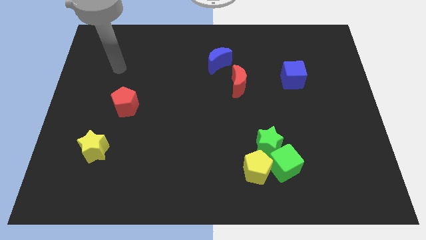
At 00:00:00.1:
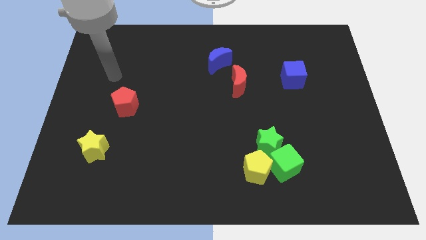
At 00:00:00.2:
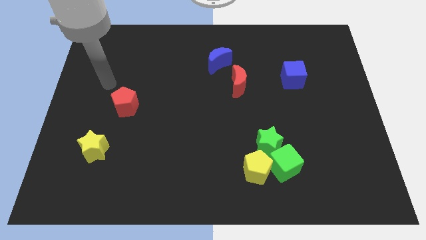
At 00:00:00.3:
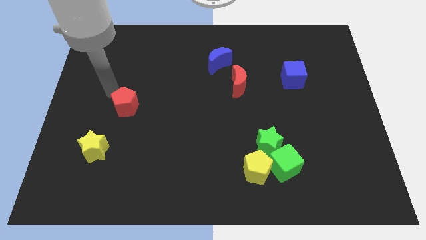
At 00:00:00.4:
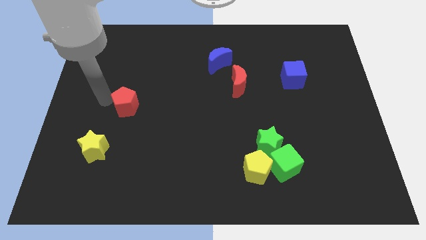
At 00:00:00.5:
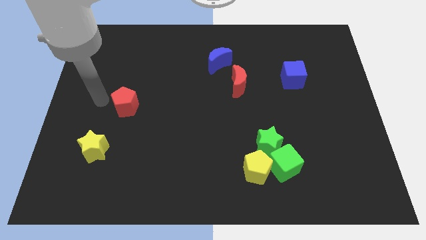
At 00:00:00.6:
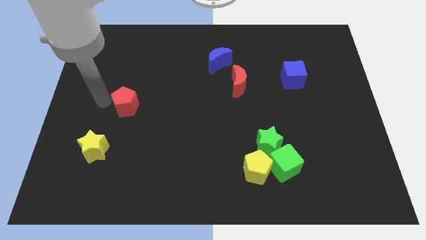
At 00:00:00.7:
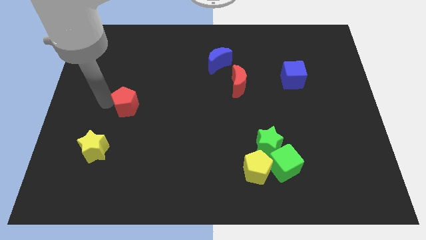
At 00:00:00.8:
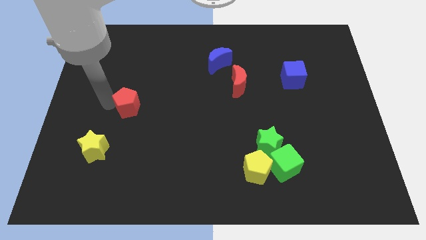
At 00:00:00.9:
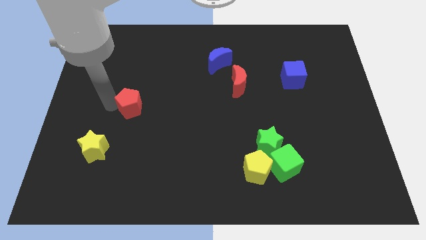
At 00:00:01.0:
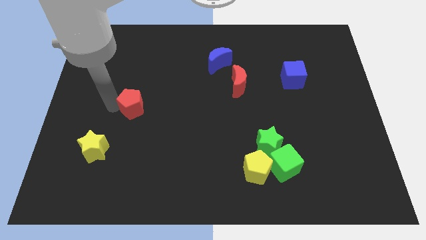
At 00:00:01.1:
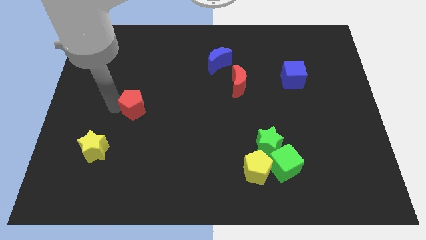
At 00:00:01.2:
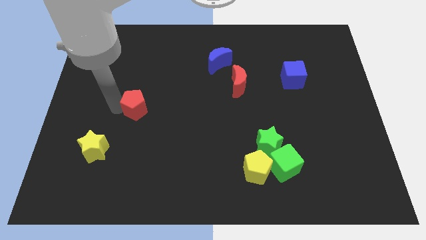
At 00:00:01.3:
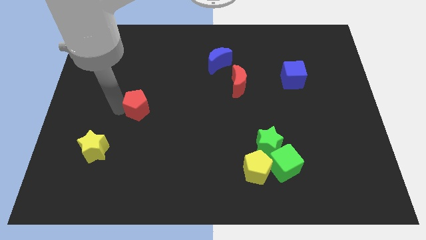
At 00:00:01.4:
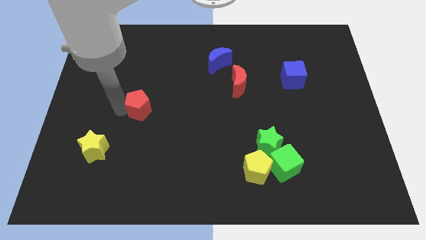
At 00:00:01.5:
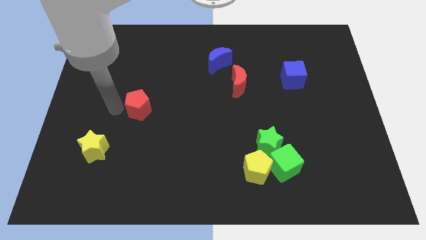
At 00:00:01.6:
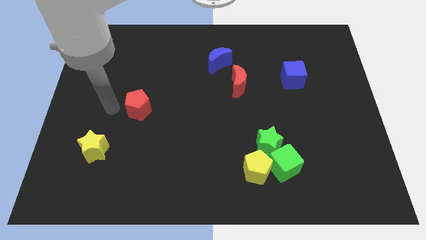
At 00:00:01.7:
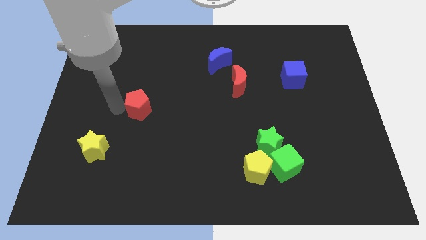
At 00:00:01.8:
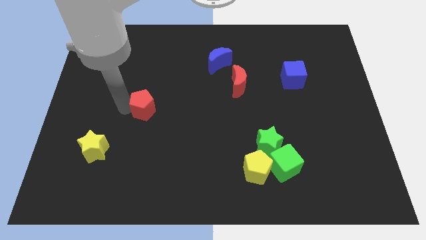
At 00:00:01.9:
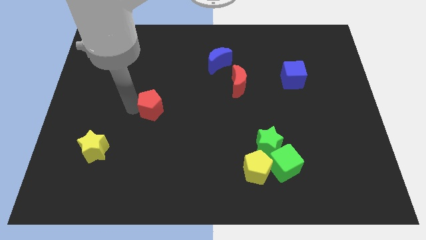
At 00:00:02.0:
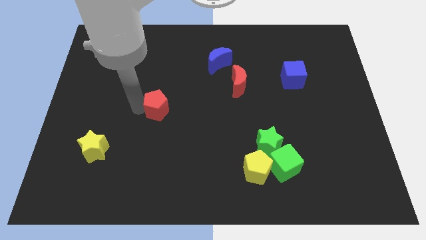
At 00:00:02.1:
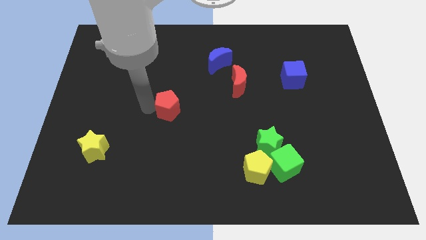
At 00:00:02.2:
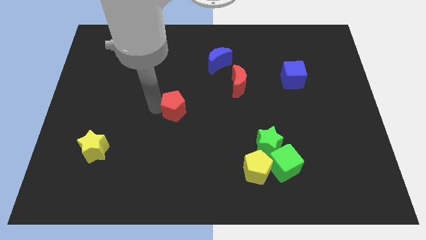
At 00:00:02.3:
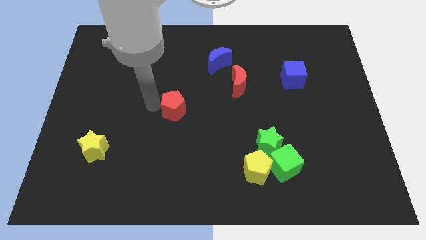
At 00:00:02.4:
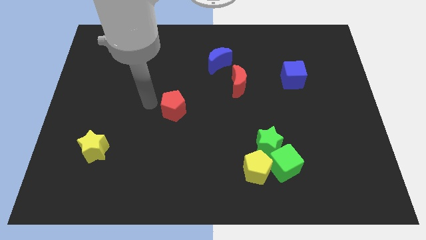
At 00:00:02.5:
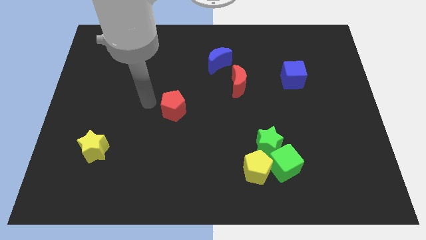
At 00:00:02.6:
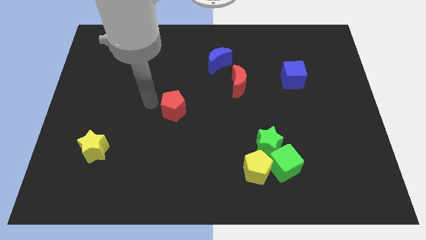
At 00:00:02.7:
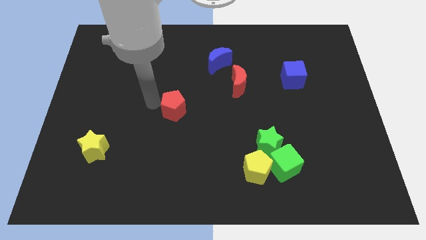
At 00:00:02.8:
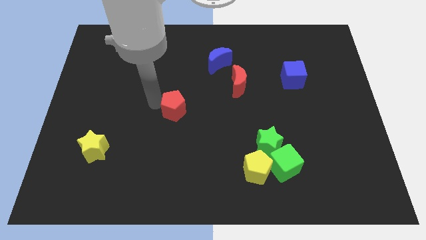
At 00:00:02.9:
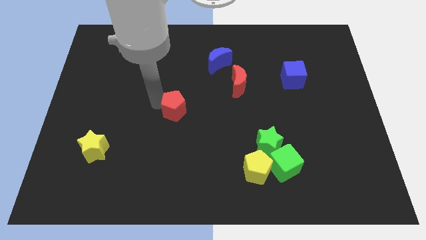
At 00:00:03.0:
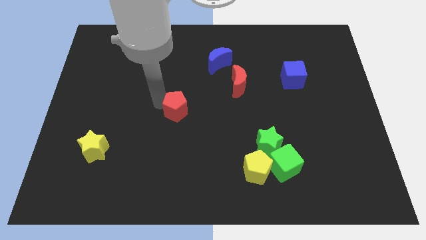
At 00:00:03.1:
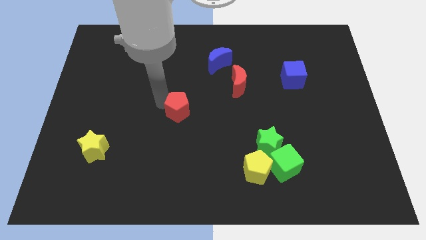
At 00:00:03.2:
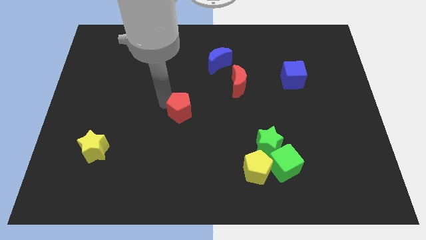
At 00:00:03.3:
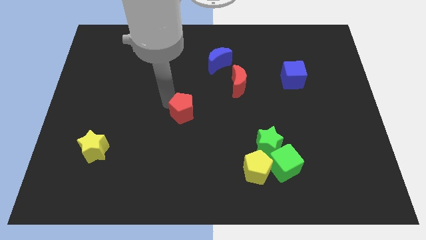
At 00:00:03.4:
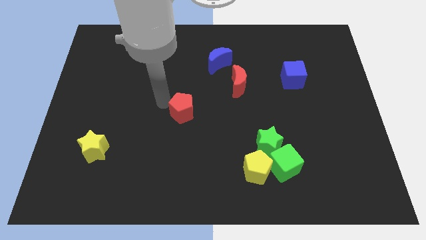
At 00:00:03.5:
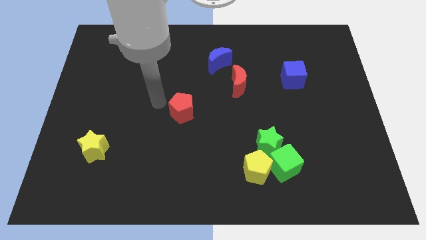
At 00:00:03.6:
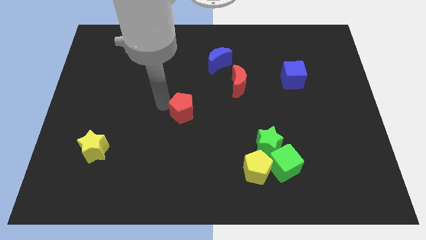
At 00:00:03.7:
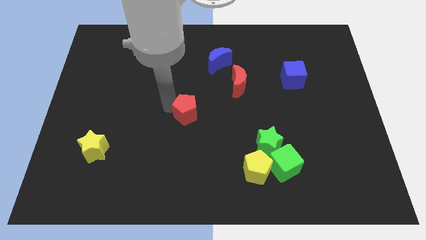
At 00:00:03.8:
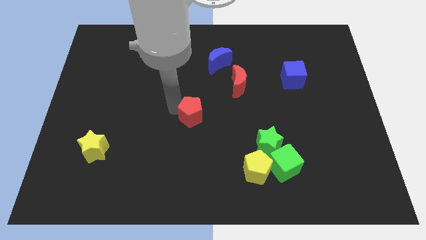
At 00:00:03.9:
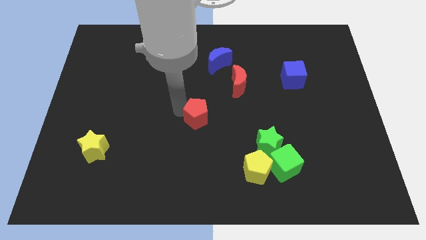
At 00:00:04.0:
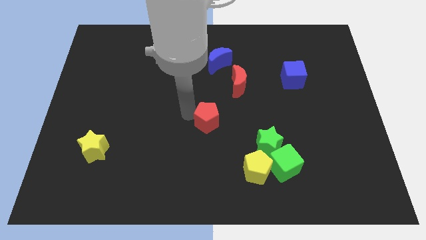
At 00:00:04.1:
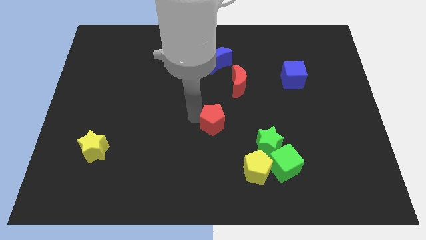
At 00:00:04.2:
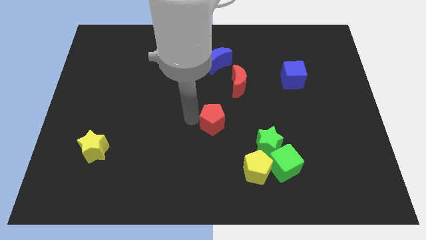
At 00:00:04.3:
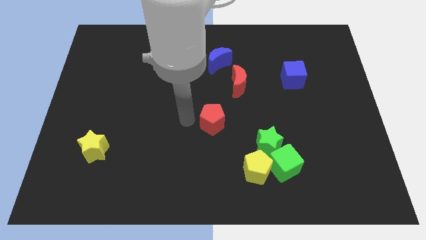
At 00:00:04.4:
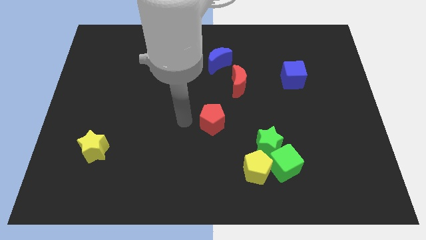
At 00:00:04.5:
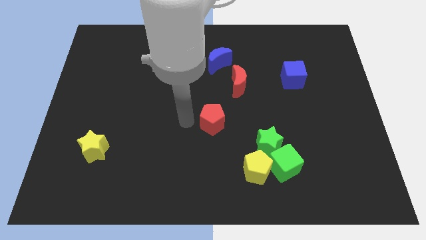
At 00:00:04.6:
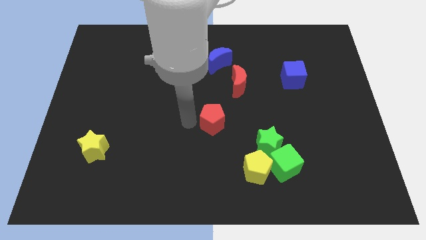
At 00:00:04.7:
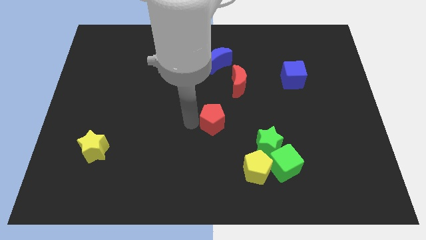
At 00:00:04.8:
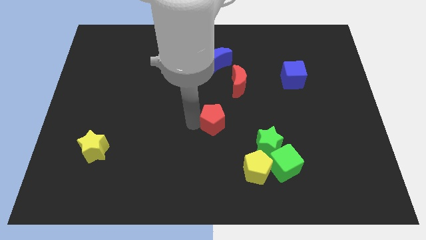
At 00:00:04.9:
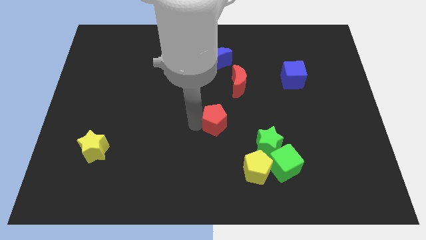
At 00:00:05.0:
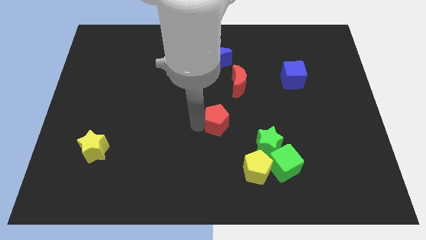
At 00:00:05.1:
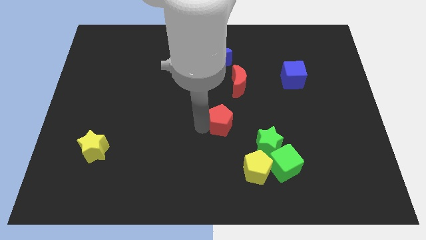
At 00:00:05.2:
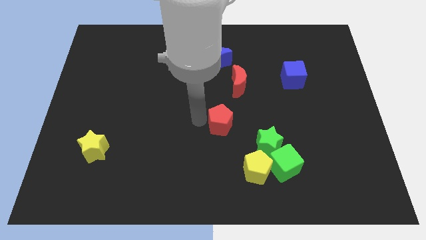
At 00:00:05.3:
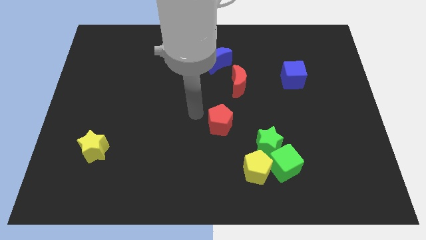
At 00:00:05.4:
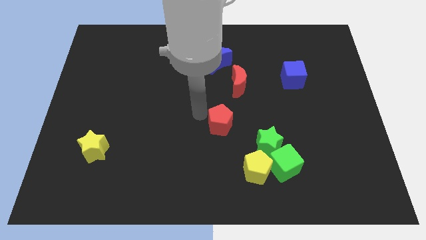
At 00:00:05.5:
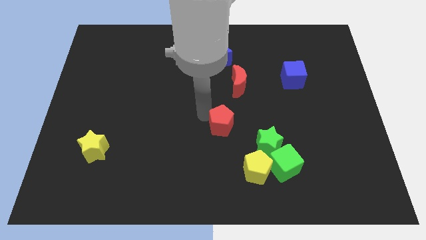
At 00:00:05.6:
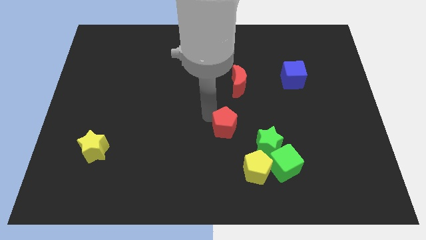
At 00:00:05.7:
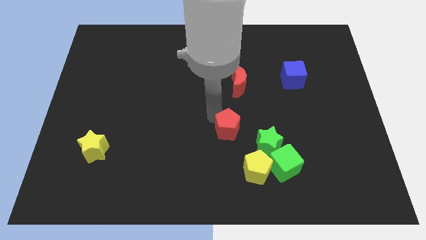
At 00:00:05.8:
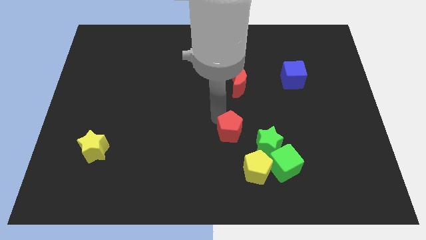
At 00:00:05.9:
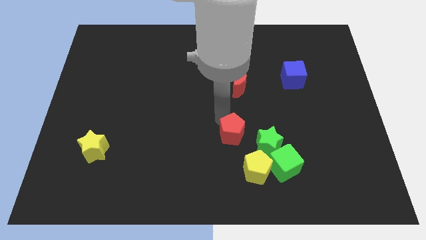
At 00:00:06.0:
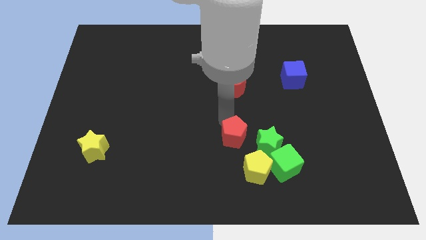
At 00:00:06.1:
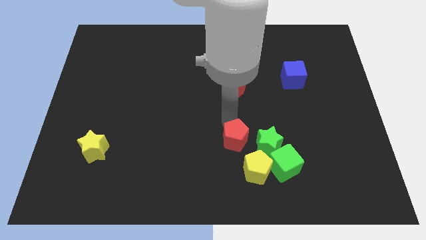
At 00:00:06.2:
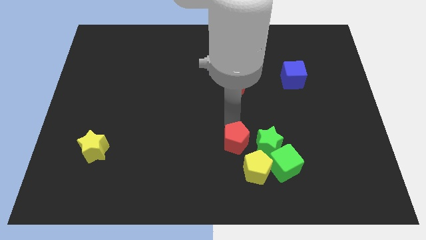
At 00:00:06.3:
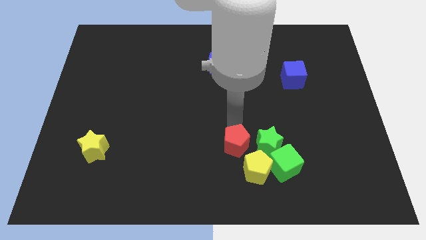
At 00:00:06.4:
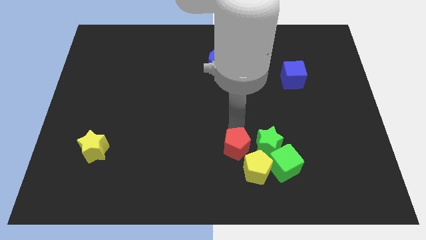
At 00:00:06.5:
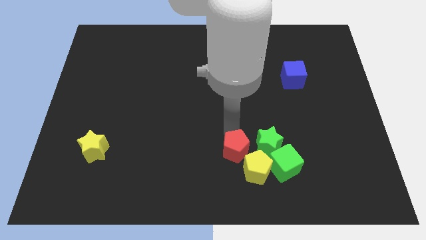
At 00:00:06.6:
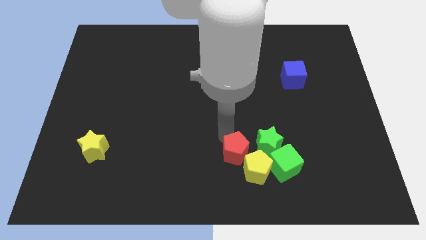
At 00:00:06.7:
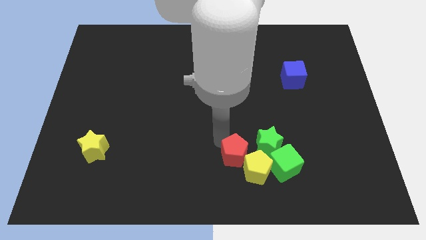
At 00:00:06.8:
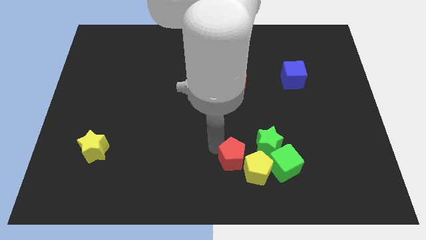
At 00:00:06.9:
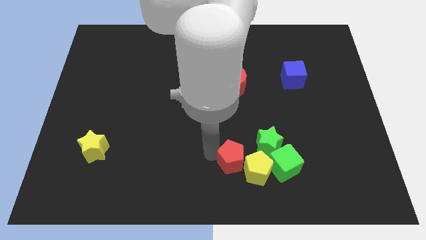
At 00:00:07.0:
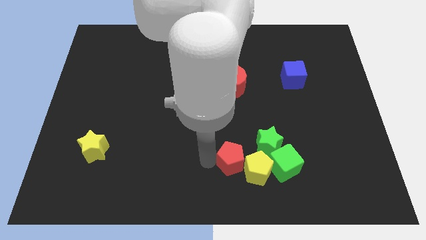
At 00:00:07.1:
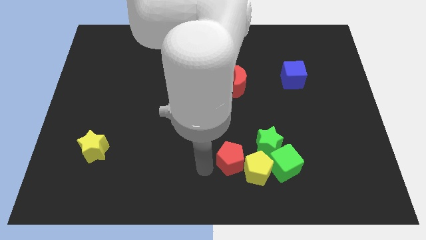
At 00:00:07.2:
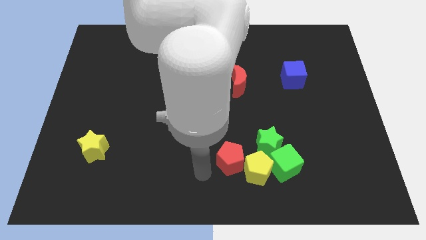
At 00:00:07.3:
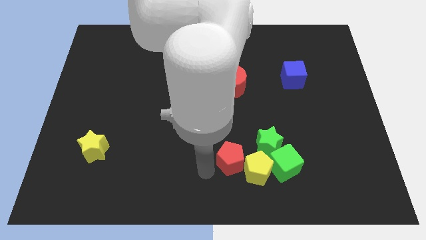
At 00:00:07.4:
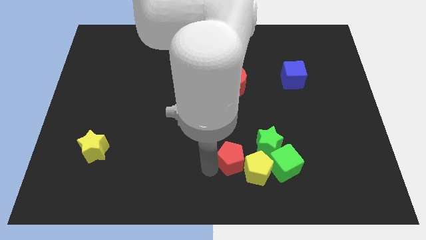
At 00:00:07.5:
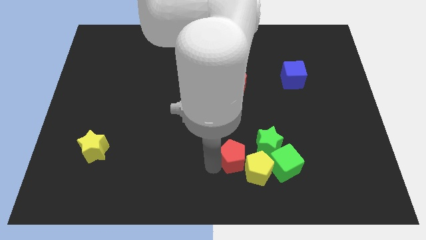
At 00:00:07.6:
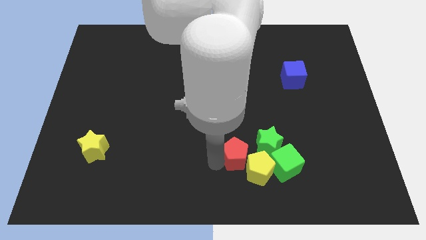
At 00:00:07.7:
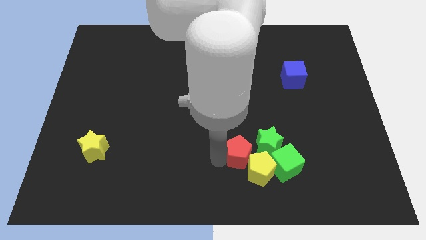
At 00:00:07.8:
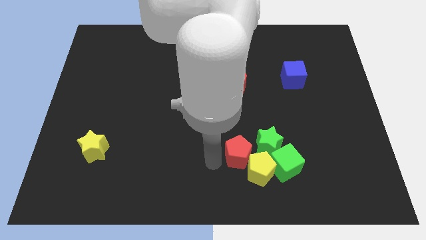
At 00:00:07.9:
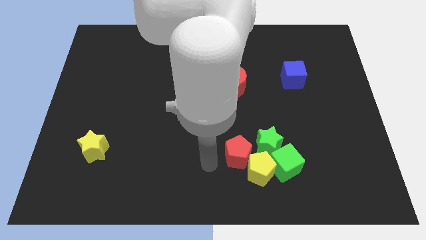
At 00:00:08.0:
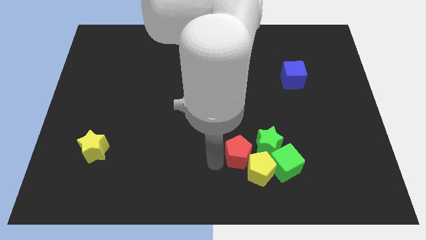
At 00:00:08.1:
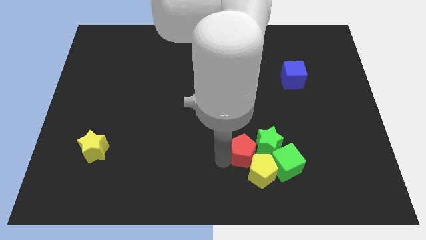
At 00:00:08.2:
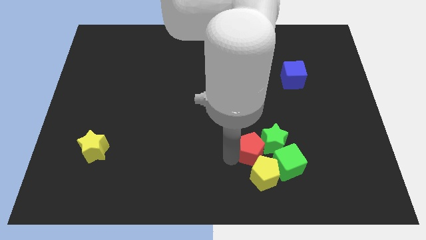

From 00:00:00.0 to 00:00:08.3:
move the red pentagon close to the green star
